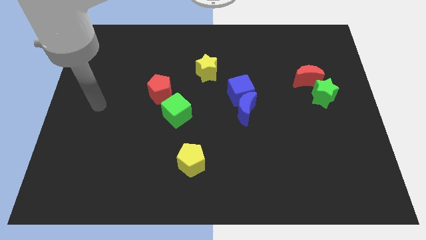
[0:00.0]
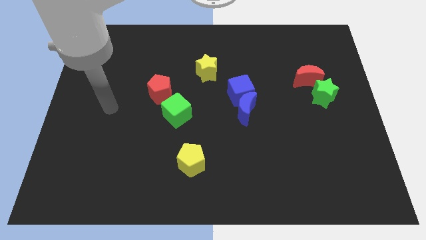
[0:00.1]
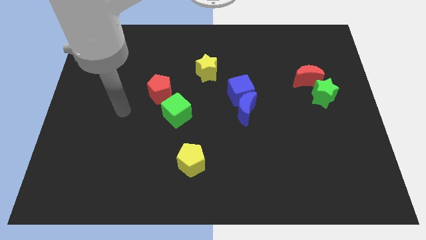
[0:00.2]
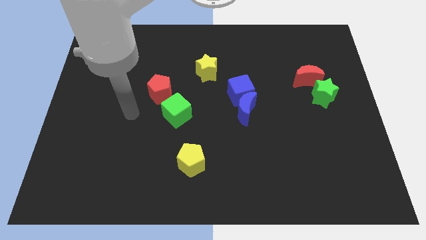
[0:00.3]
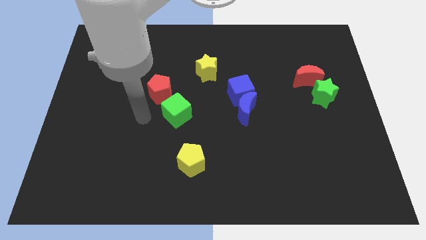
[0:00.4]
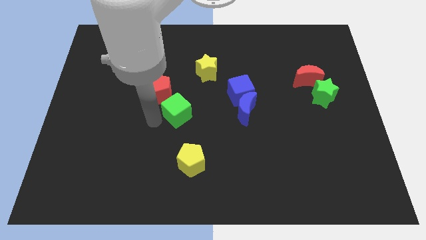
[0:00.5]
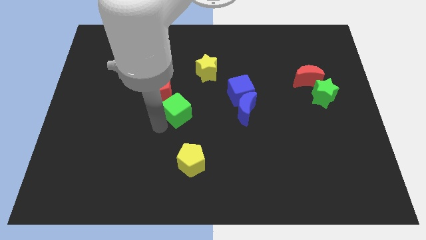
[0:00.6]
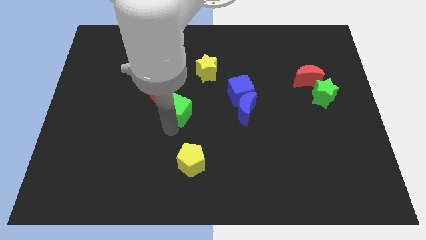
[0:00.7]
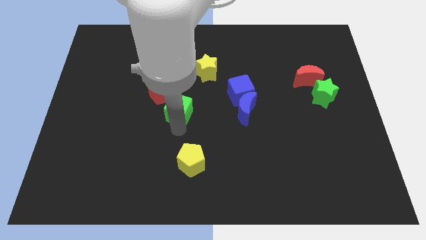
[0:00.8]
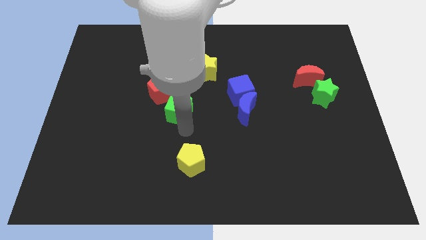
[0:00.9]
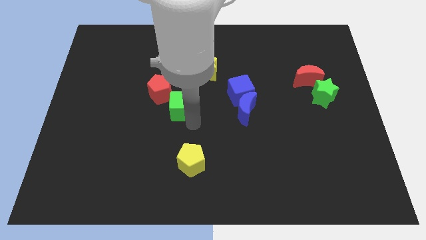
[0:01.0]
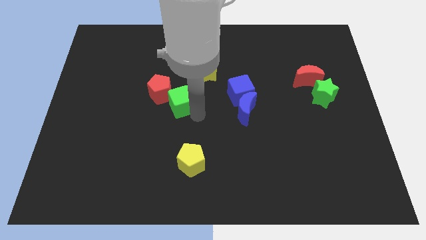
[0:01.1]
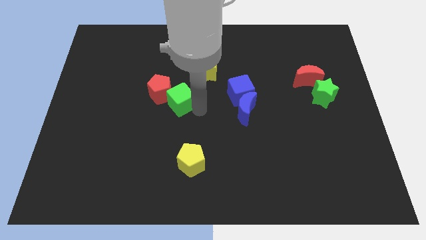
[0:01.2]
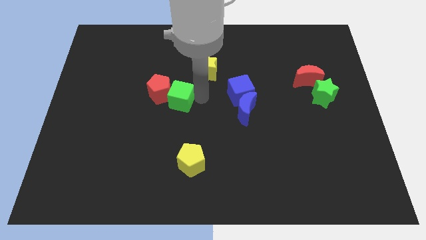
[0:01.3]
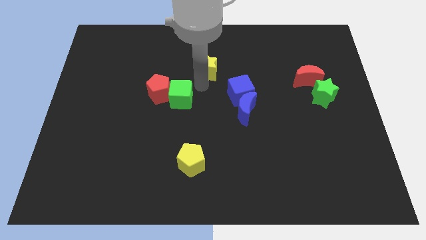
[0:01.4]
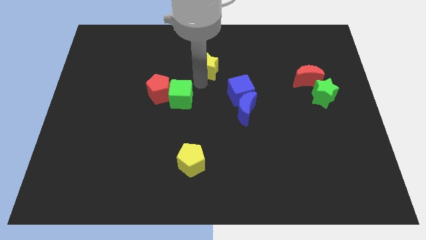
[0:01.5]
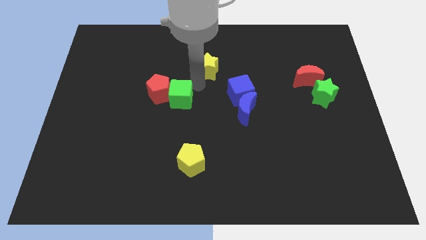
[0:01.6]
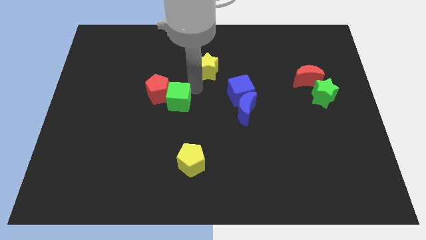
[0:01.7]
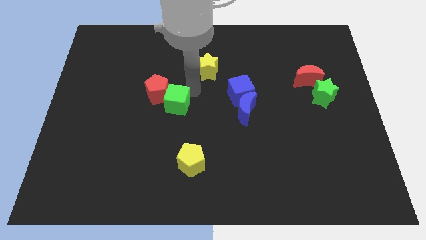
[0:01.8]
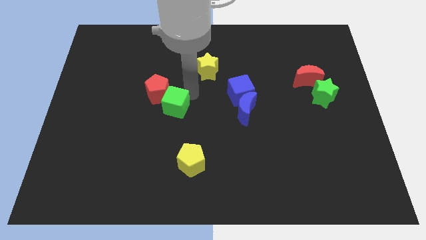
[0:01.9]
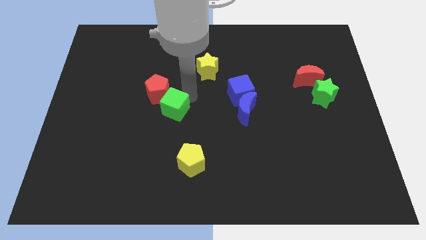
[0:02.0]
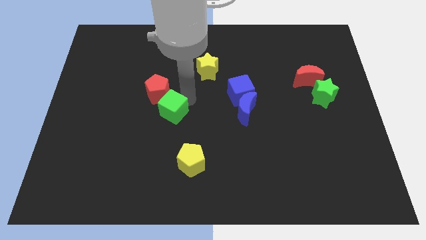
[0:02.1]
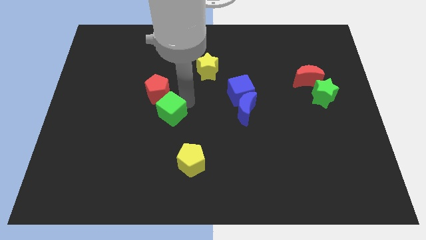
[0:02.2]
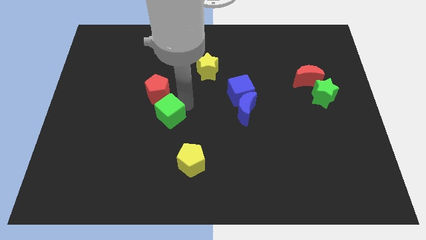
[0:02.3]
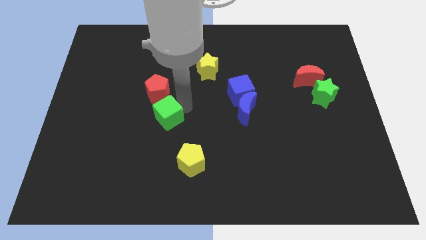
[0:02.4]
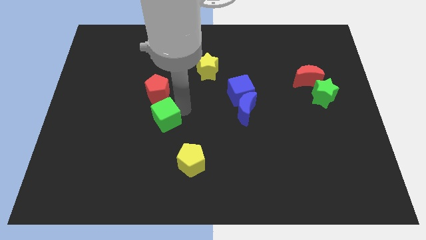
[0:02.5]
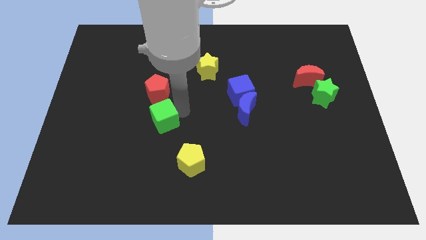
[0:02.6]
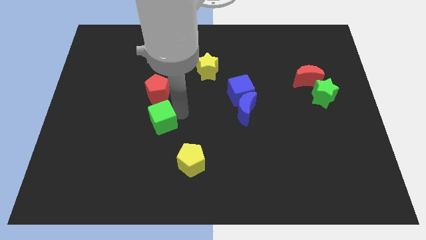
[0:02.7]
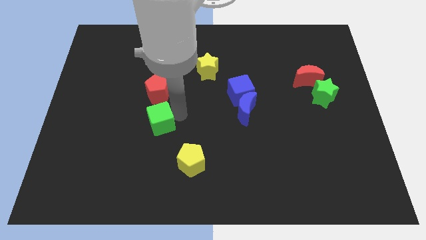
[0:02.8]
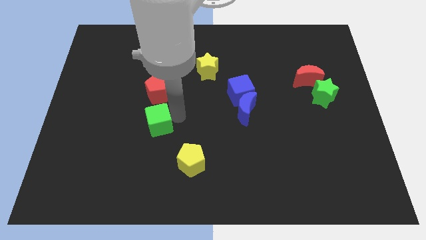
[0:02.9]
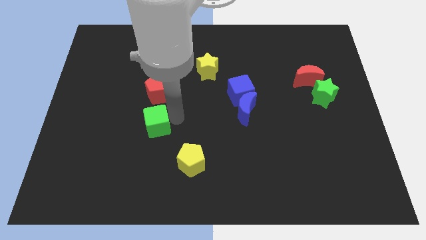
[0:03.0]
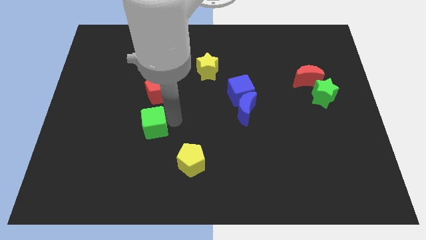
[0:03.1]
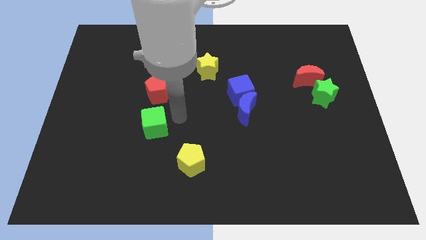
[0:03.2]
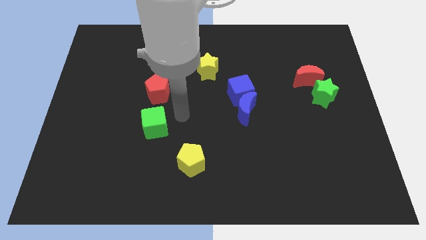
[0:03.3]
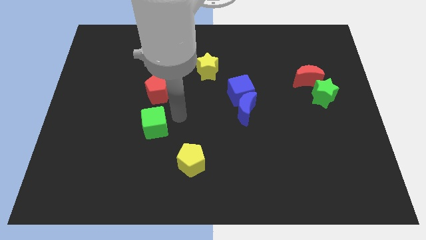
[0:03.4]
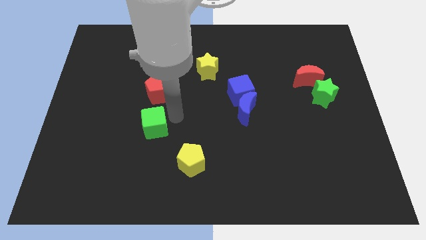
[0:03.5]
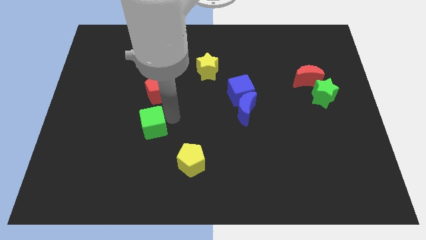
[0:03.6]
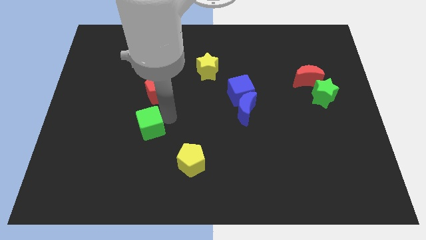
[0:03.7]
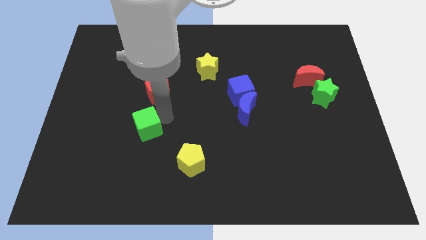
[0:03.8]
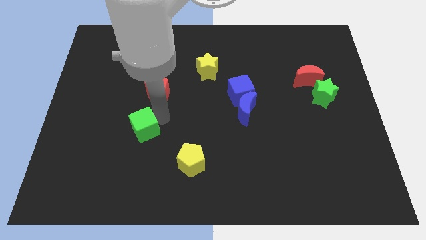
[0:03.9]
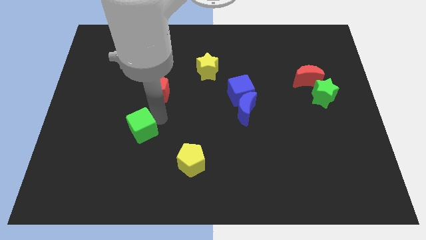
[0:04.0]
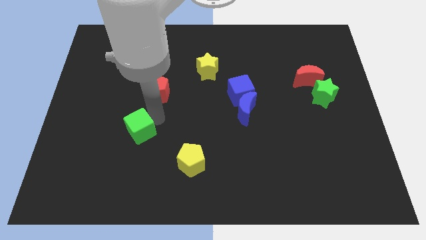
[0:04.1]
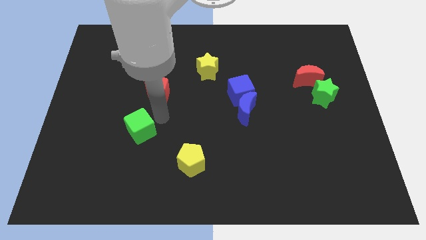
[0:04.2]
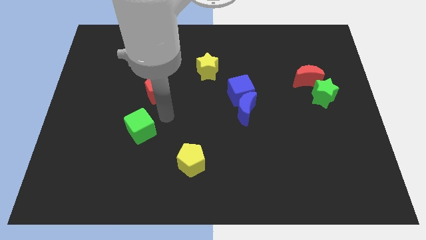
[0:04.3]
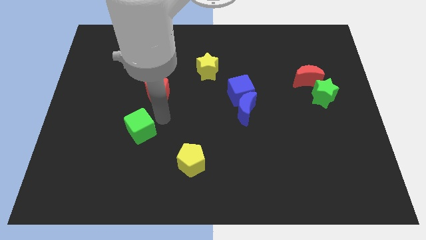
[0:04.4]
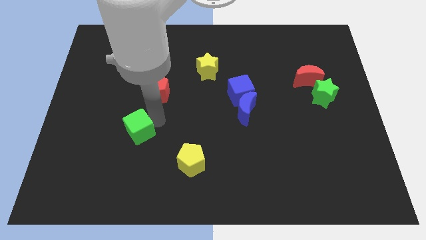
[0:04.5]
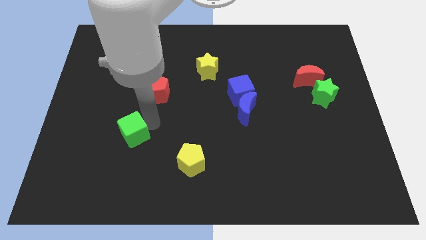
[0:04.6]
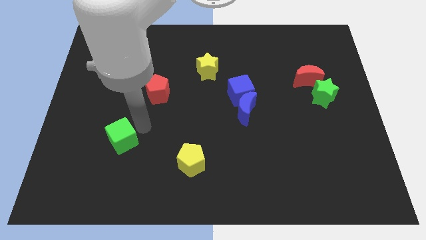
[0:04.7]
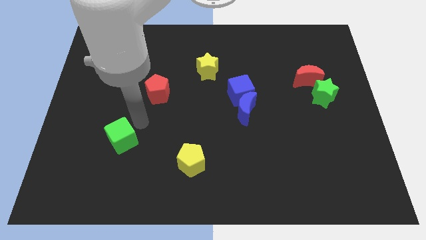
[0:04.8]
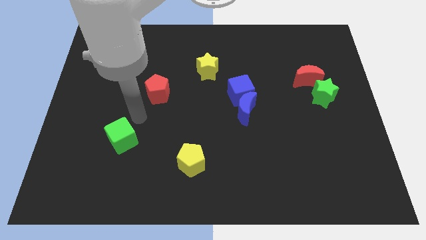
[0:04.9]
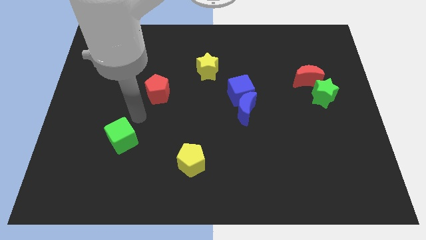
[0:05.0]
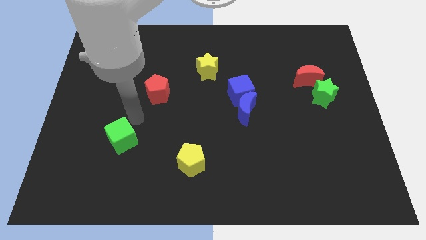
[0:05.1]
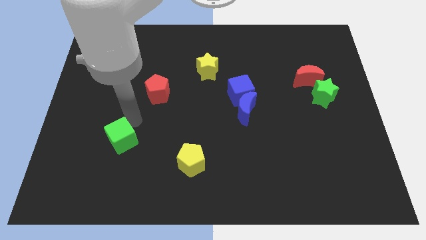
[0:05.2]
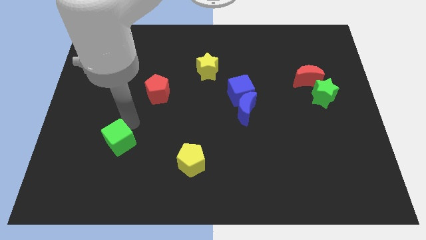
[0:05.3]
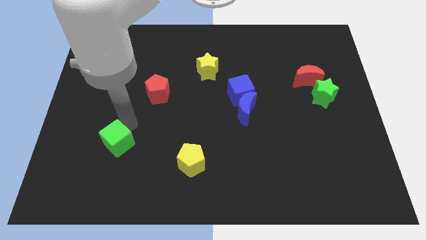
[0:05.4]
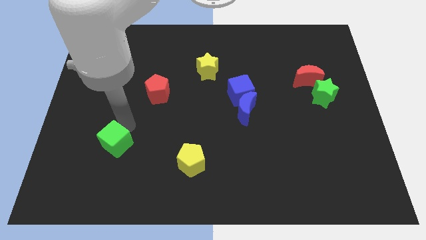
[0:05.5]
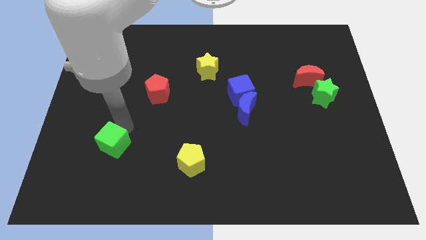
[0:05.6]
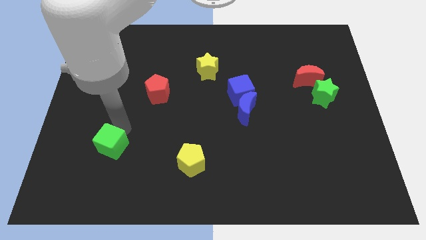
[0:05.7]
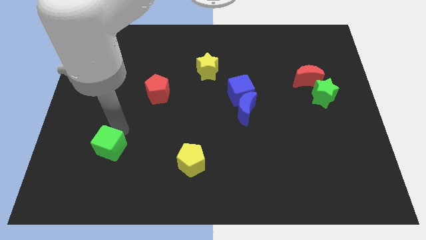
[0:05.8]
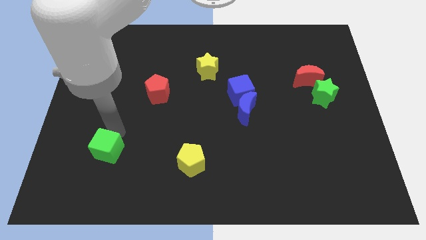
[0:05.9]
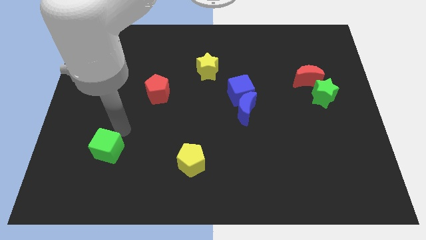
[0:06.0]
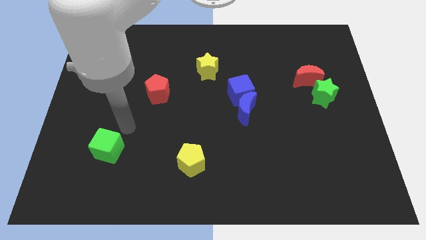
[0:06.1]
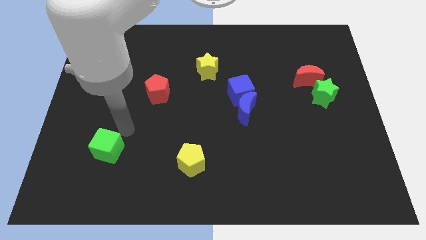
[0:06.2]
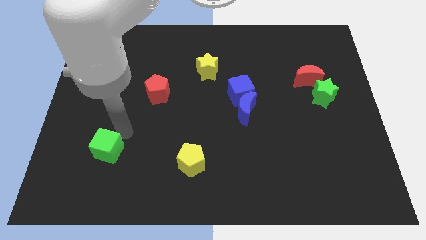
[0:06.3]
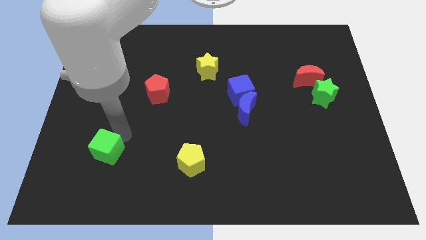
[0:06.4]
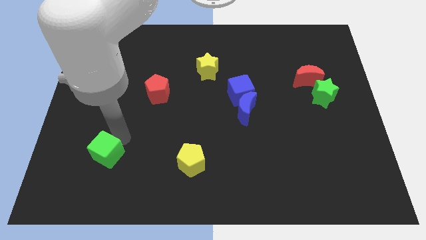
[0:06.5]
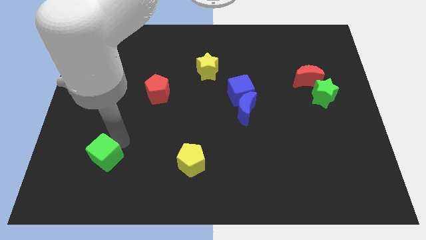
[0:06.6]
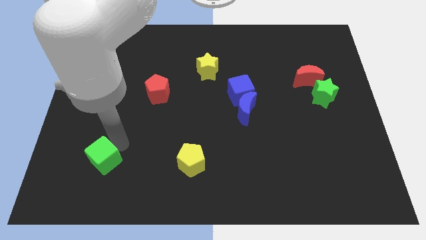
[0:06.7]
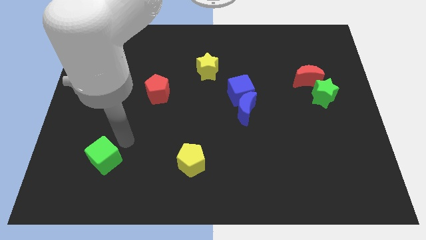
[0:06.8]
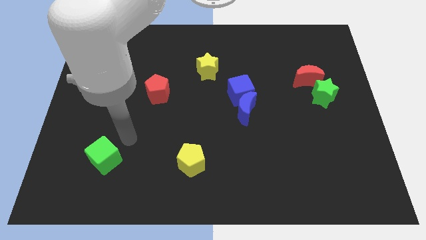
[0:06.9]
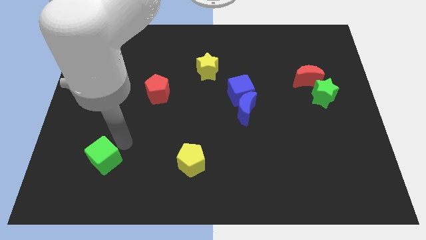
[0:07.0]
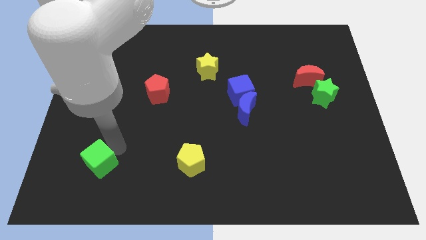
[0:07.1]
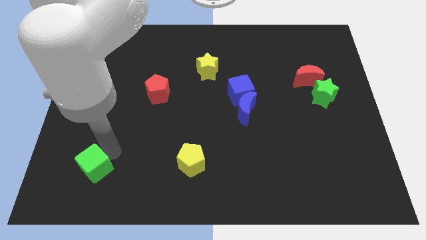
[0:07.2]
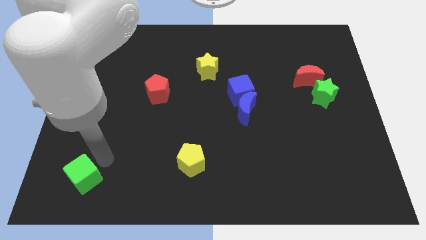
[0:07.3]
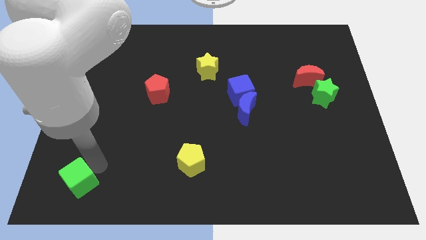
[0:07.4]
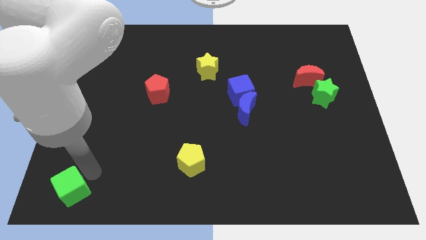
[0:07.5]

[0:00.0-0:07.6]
put the green cube to the lower left corner
